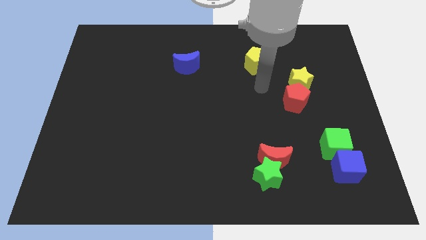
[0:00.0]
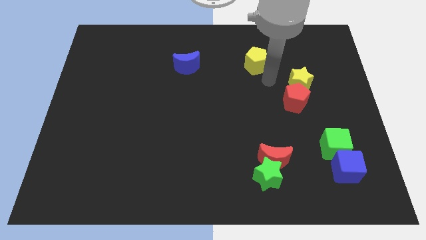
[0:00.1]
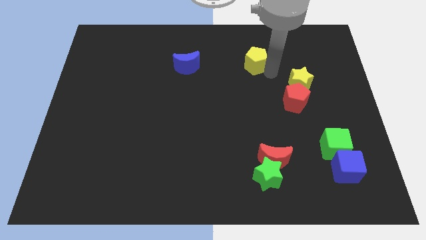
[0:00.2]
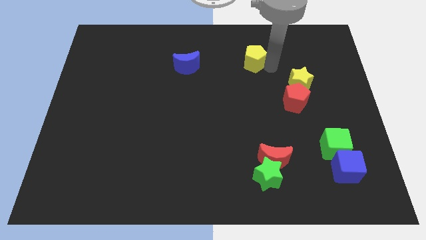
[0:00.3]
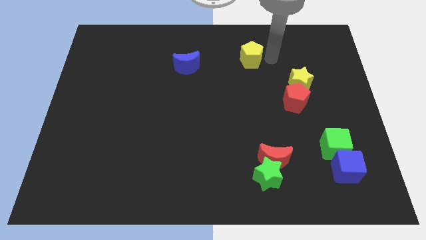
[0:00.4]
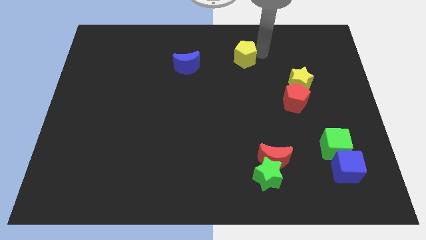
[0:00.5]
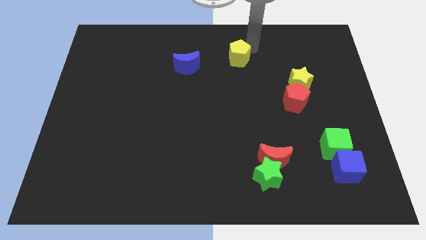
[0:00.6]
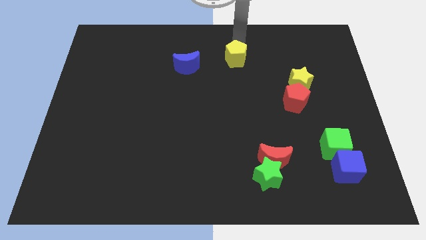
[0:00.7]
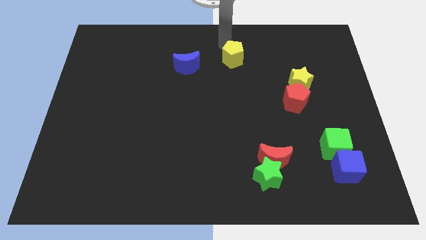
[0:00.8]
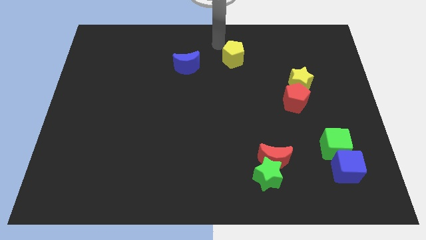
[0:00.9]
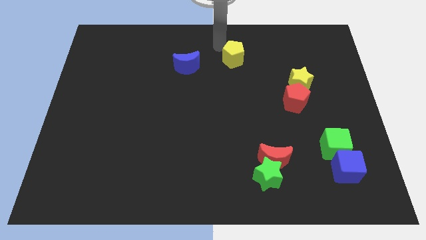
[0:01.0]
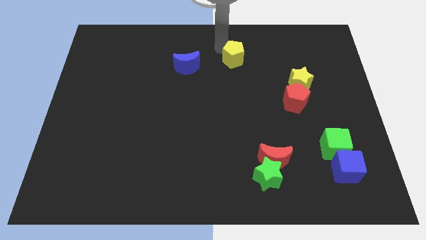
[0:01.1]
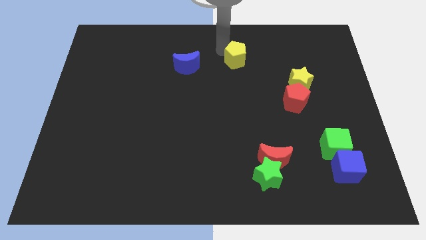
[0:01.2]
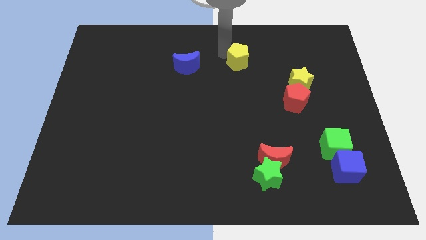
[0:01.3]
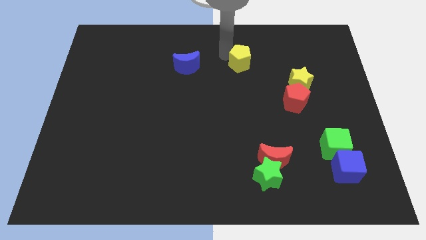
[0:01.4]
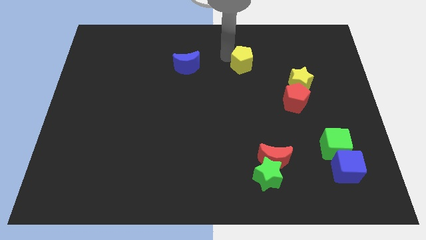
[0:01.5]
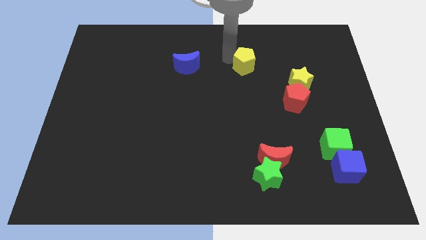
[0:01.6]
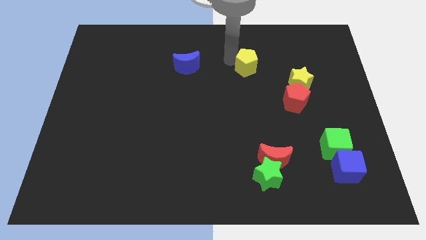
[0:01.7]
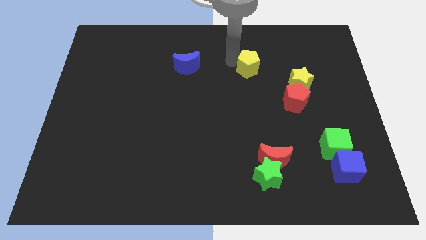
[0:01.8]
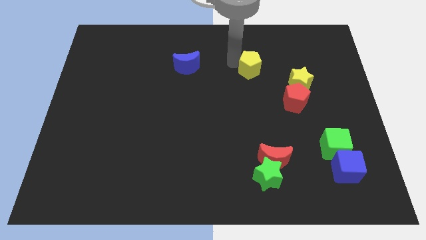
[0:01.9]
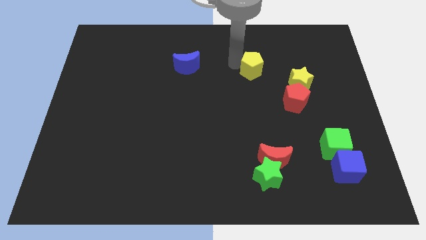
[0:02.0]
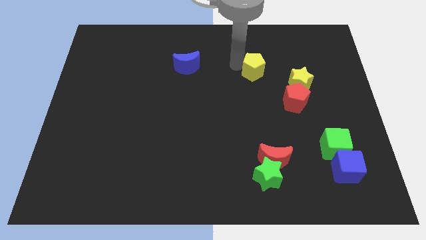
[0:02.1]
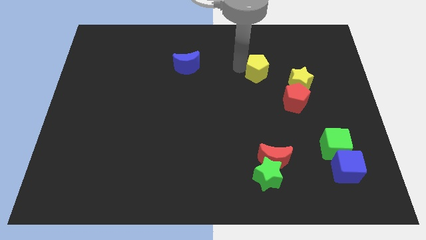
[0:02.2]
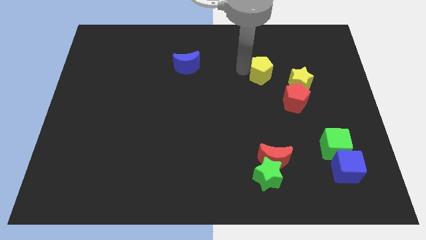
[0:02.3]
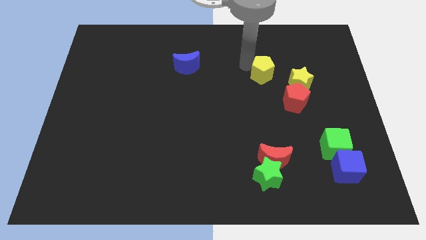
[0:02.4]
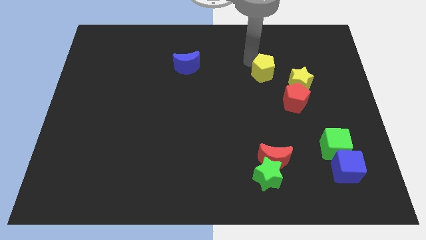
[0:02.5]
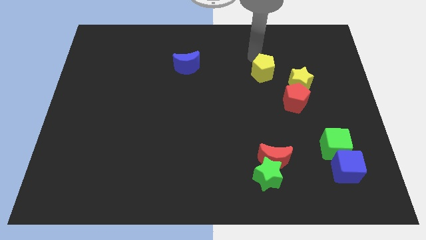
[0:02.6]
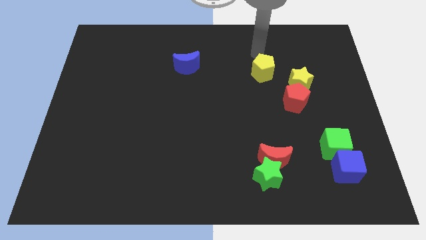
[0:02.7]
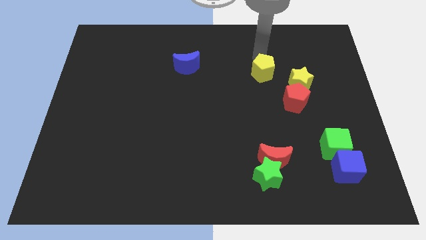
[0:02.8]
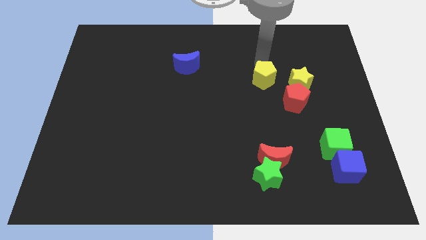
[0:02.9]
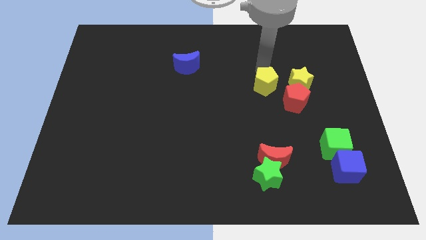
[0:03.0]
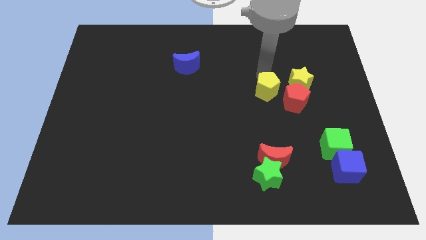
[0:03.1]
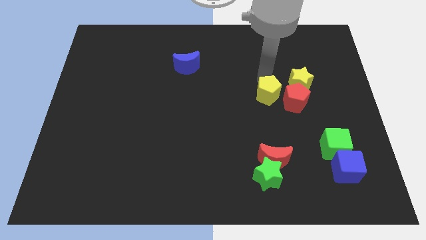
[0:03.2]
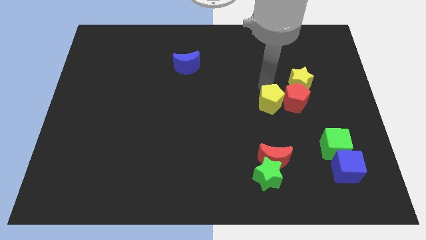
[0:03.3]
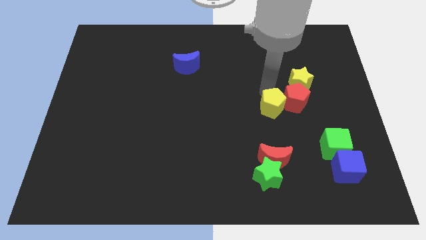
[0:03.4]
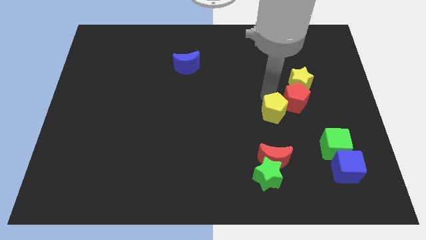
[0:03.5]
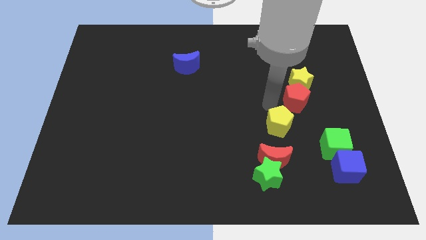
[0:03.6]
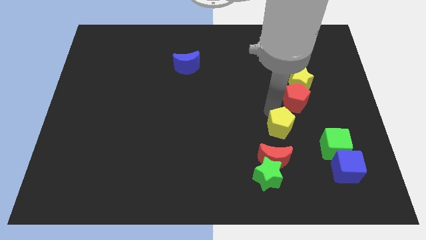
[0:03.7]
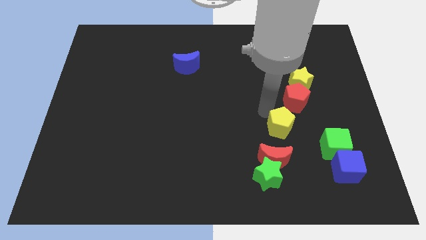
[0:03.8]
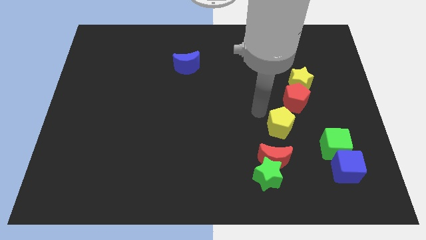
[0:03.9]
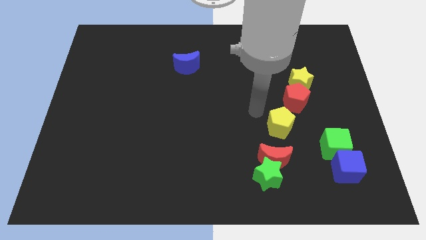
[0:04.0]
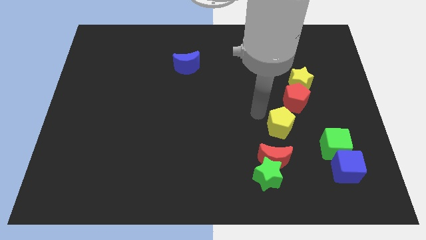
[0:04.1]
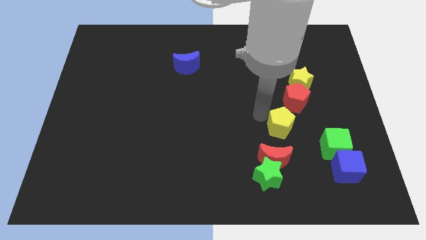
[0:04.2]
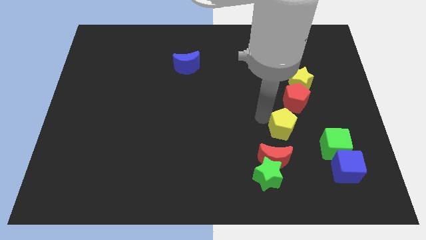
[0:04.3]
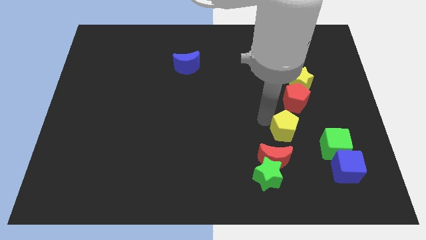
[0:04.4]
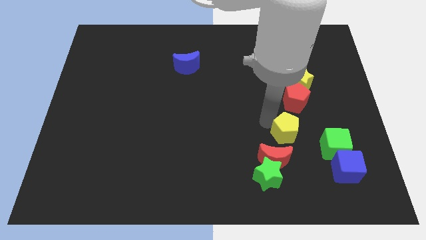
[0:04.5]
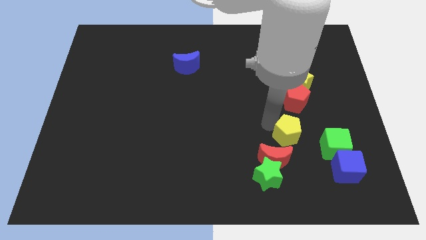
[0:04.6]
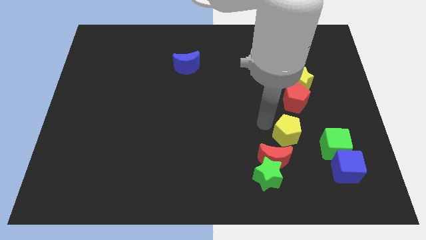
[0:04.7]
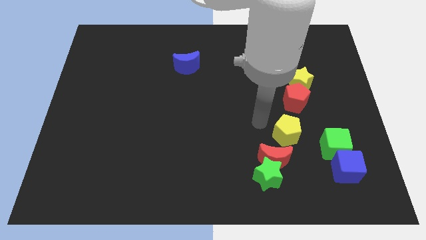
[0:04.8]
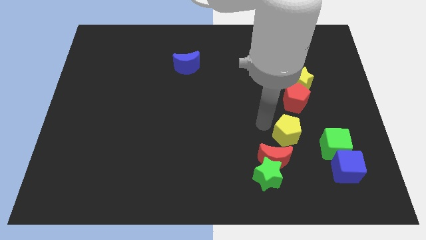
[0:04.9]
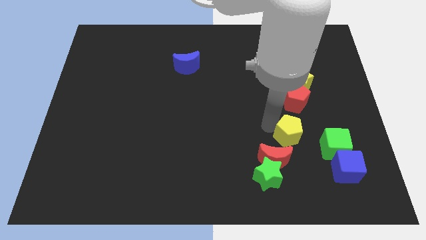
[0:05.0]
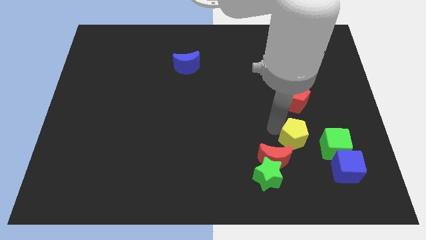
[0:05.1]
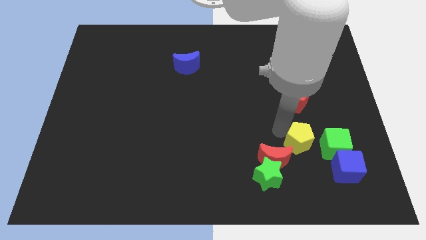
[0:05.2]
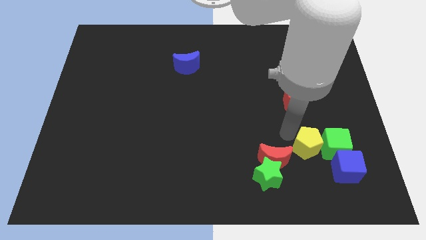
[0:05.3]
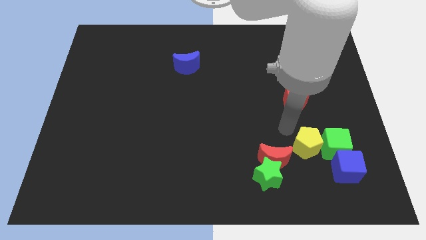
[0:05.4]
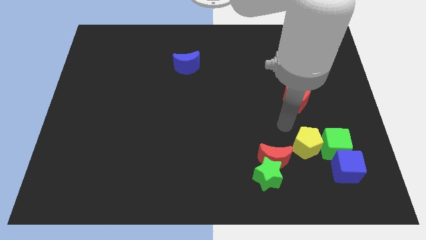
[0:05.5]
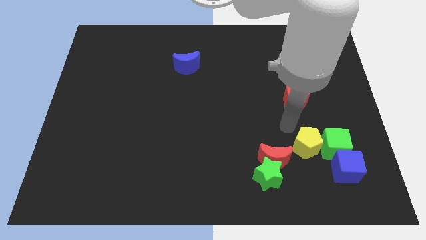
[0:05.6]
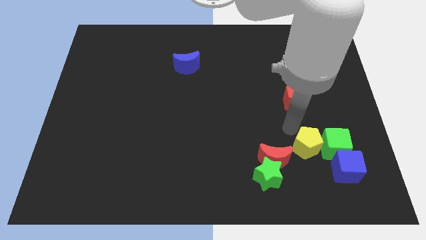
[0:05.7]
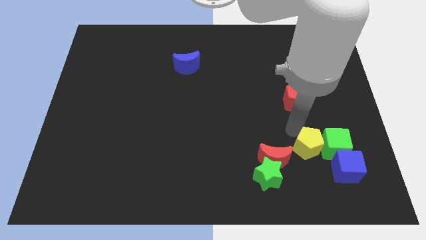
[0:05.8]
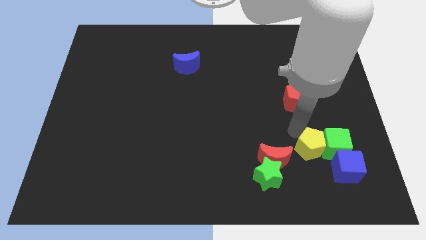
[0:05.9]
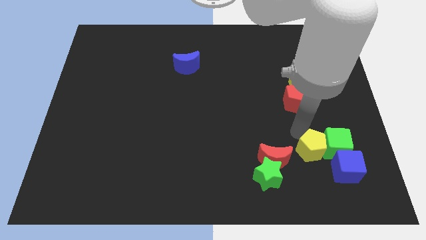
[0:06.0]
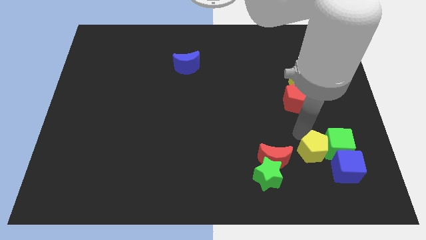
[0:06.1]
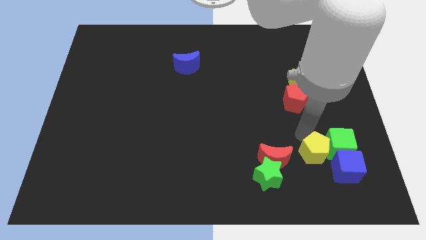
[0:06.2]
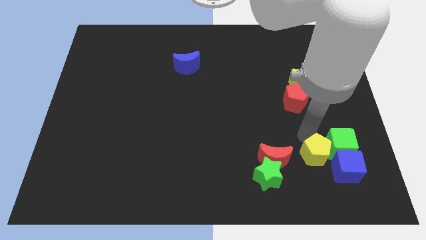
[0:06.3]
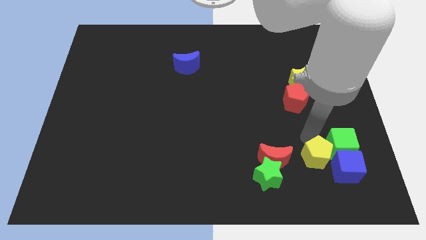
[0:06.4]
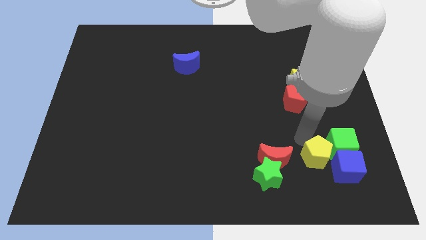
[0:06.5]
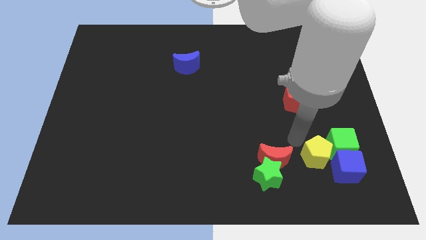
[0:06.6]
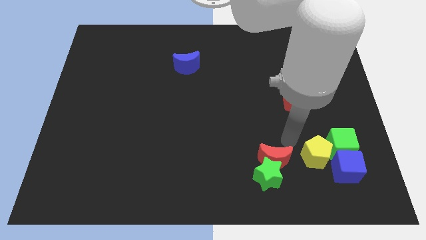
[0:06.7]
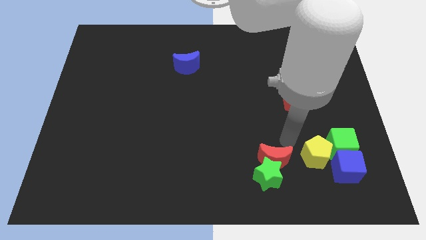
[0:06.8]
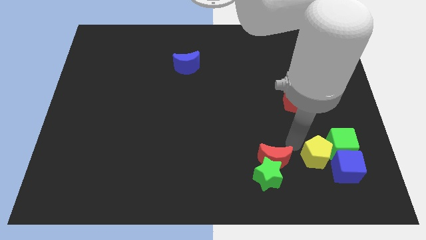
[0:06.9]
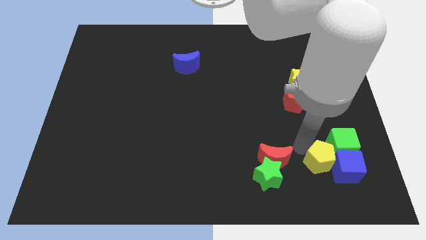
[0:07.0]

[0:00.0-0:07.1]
push the yellow pentagon to the blue cube

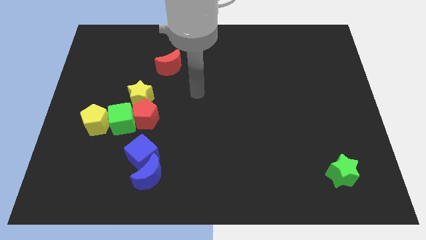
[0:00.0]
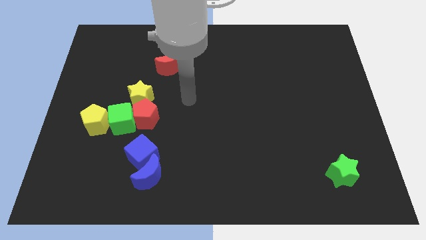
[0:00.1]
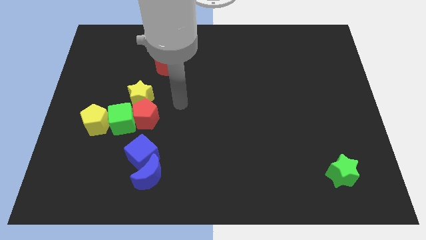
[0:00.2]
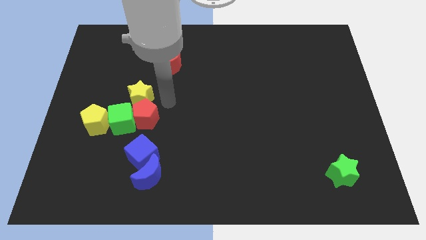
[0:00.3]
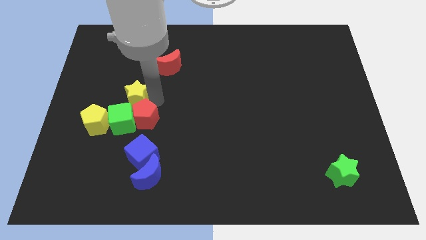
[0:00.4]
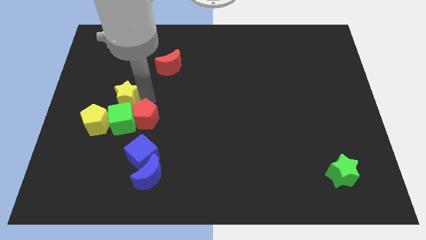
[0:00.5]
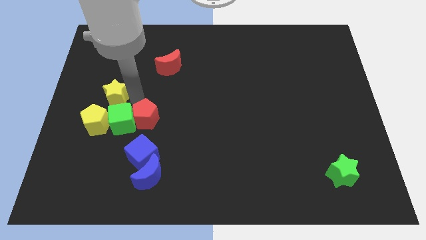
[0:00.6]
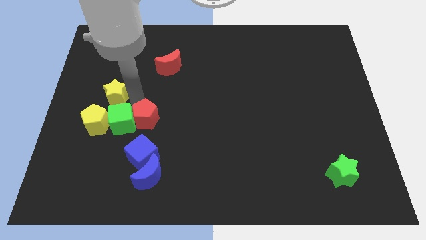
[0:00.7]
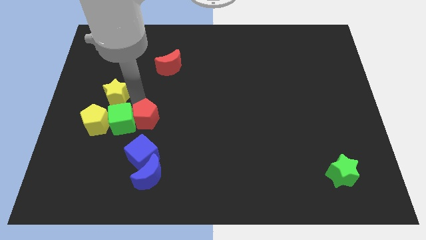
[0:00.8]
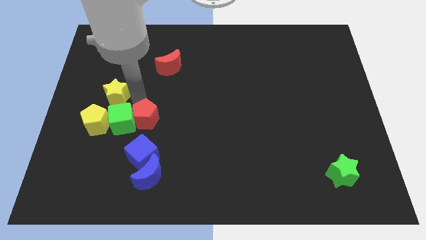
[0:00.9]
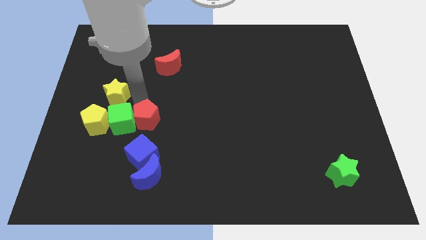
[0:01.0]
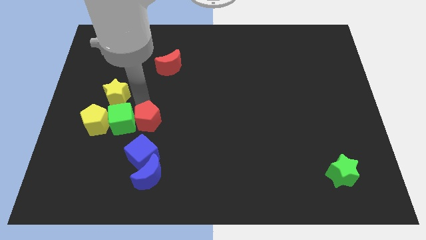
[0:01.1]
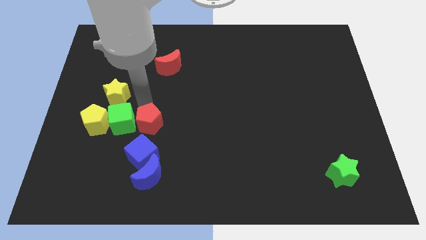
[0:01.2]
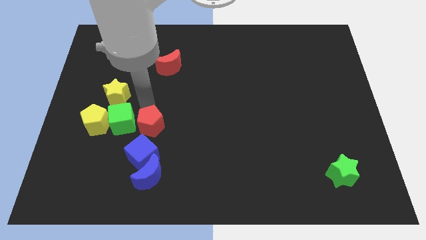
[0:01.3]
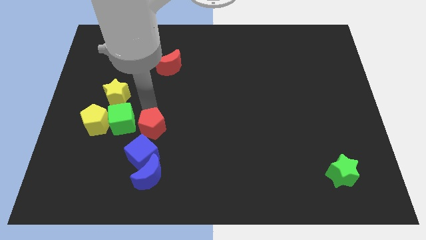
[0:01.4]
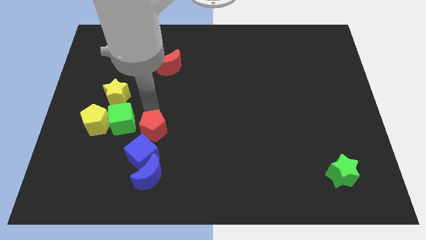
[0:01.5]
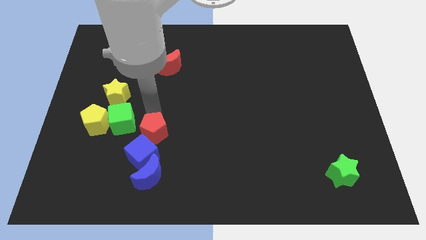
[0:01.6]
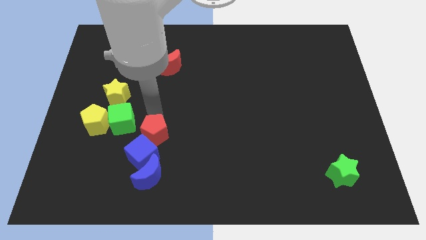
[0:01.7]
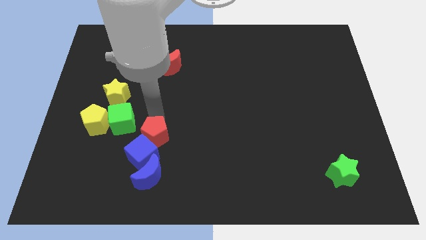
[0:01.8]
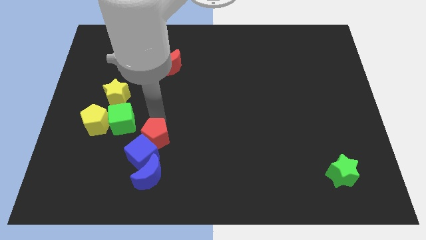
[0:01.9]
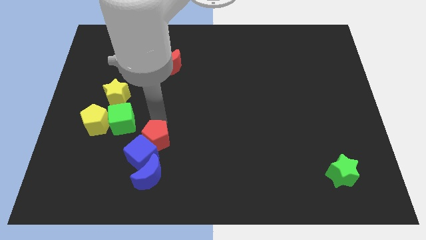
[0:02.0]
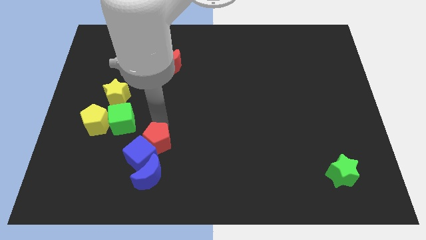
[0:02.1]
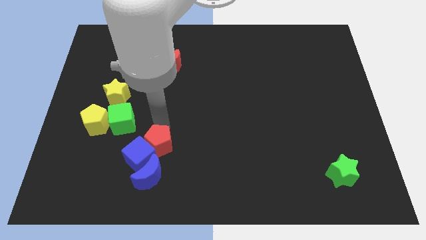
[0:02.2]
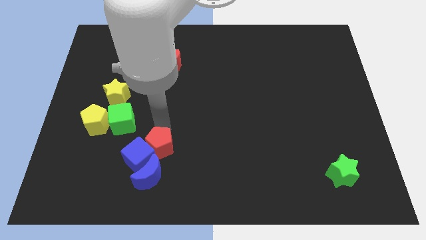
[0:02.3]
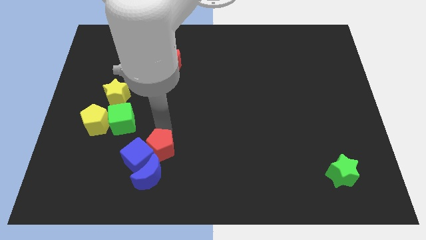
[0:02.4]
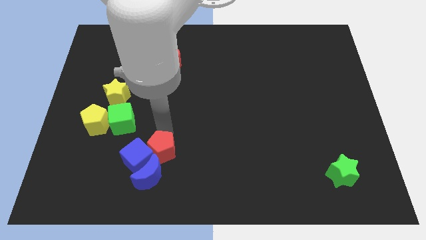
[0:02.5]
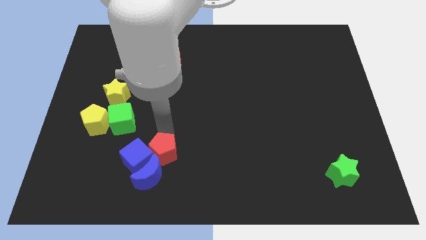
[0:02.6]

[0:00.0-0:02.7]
slide the red pentagon to the blue moon
